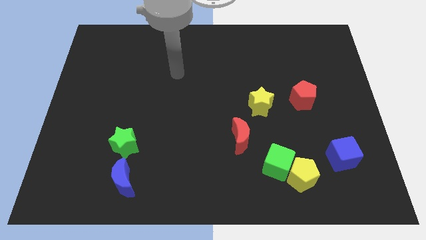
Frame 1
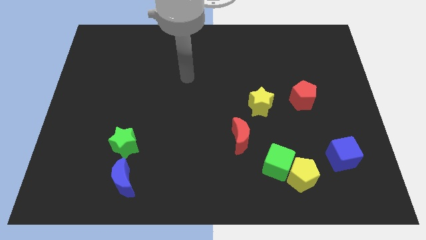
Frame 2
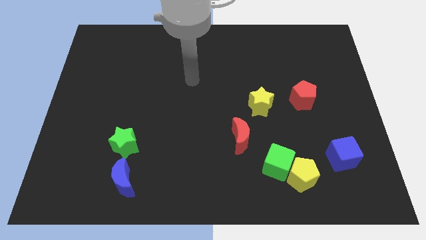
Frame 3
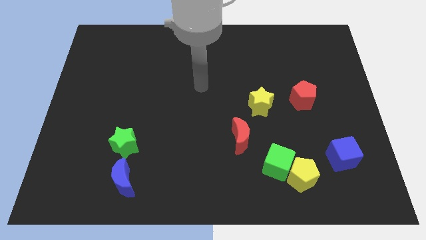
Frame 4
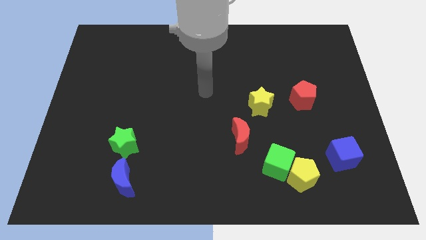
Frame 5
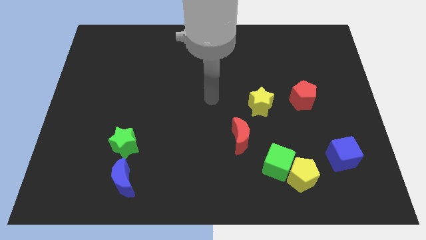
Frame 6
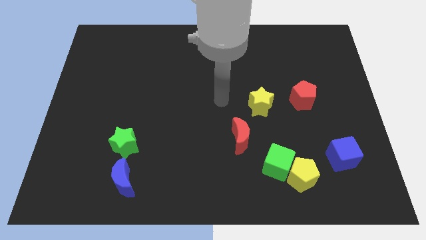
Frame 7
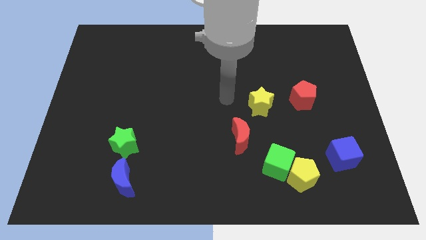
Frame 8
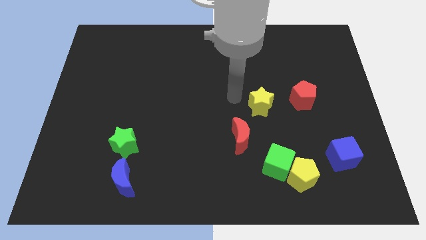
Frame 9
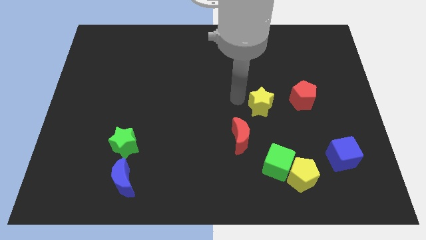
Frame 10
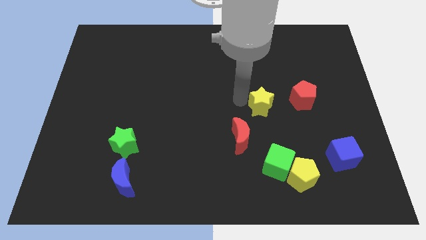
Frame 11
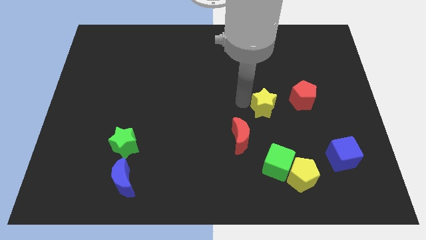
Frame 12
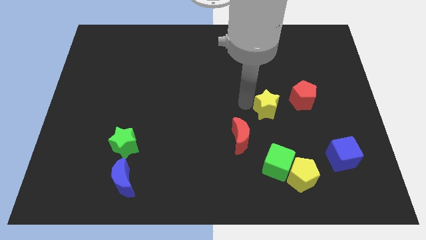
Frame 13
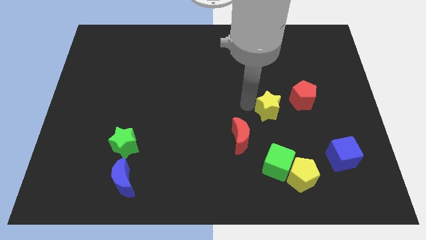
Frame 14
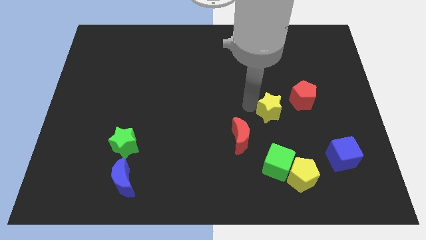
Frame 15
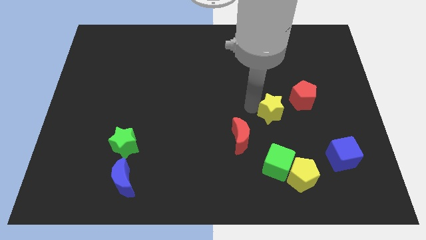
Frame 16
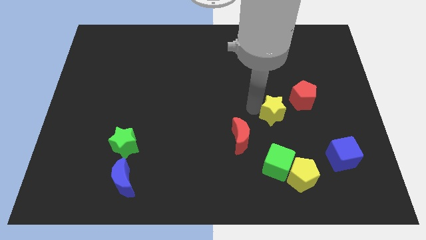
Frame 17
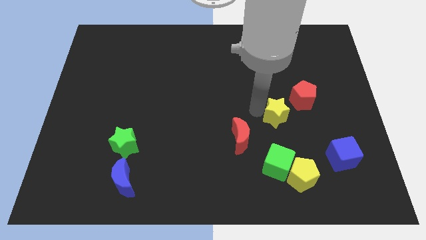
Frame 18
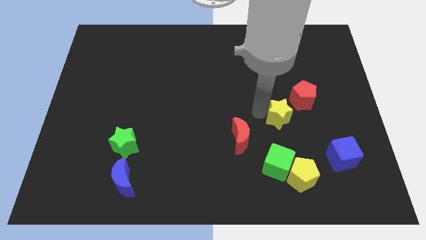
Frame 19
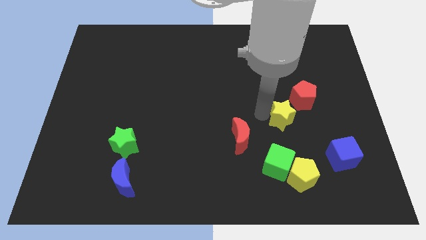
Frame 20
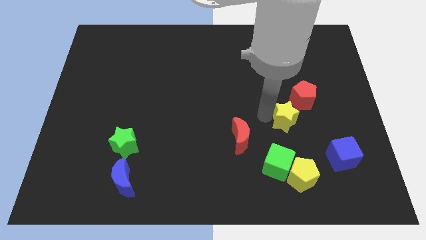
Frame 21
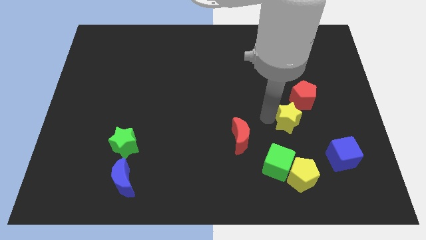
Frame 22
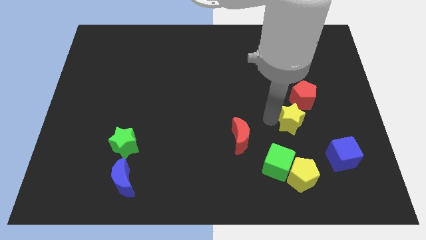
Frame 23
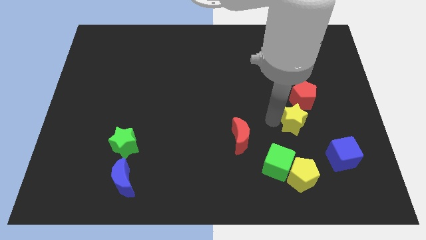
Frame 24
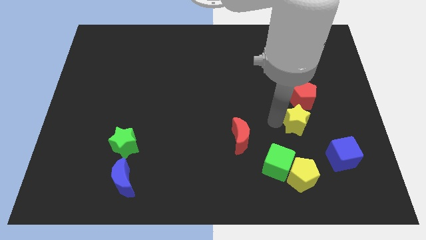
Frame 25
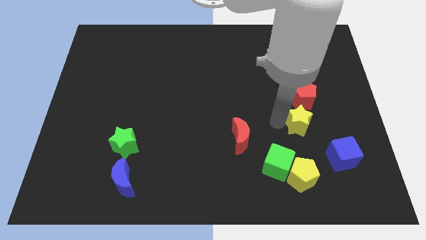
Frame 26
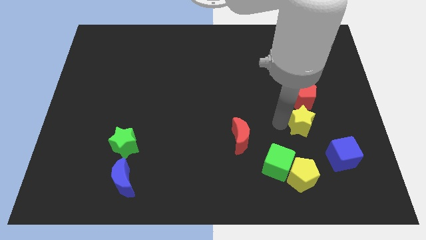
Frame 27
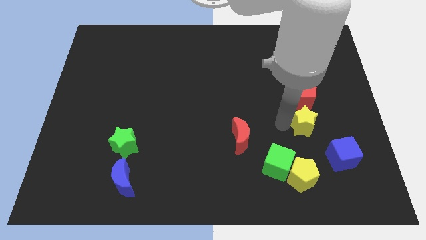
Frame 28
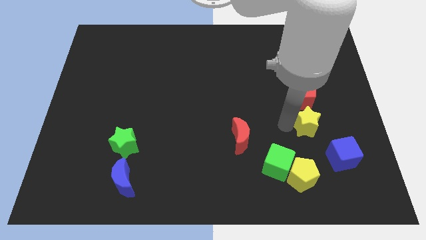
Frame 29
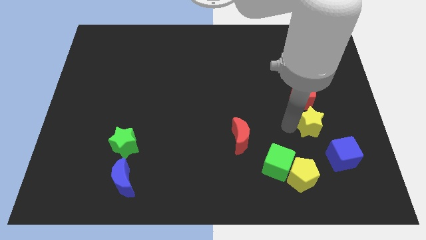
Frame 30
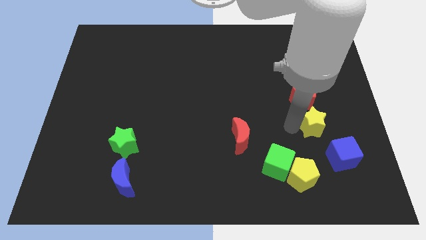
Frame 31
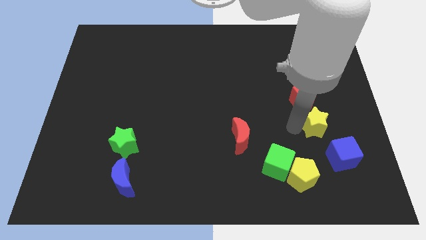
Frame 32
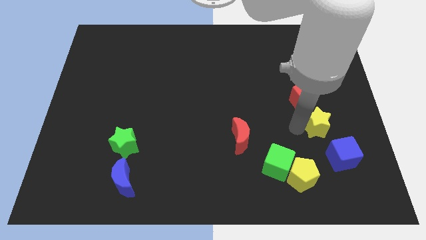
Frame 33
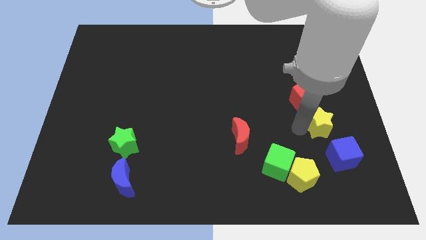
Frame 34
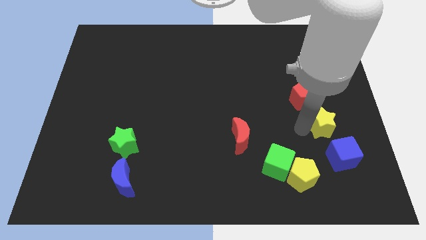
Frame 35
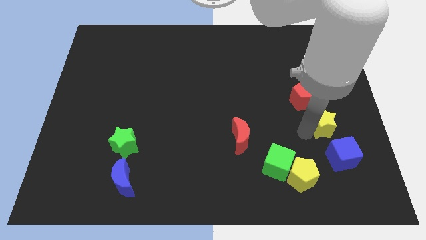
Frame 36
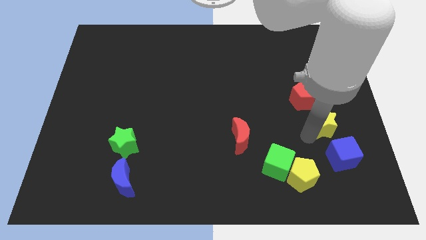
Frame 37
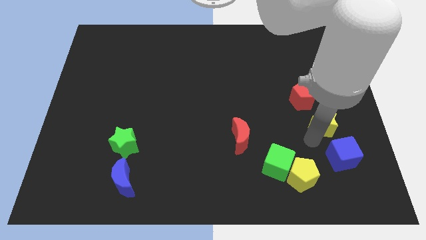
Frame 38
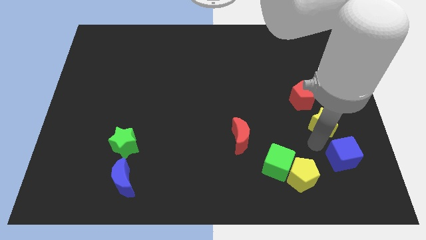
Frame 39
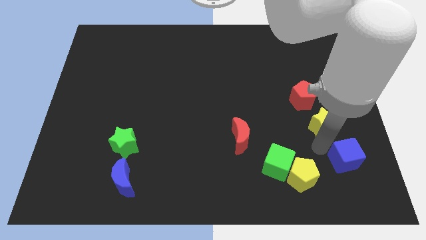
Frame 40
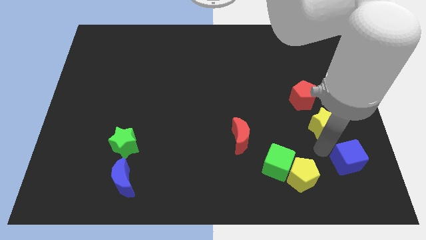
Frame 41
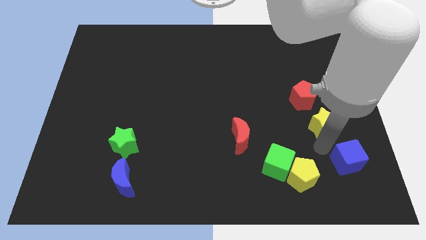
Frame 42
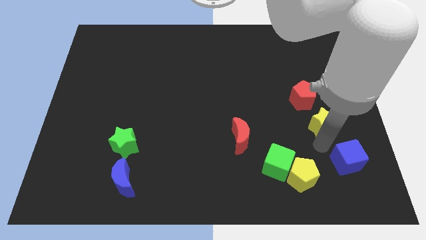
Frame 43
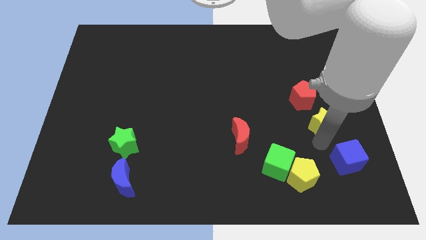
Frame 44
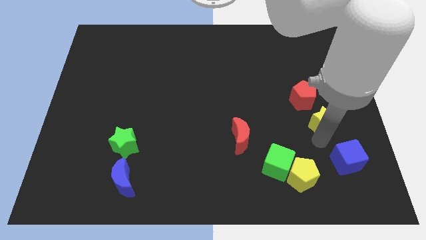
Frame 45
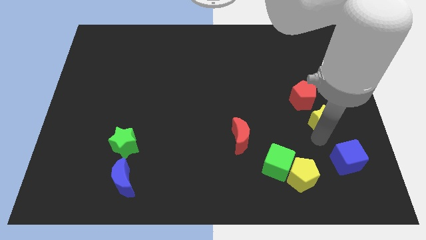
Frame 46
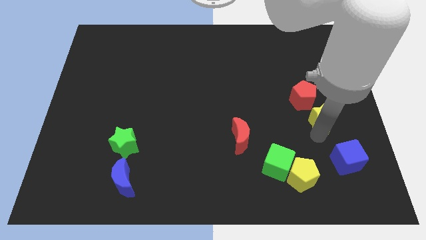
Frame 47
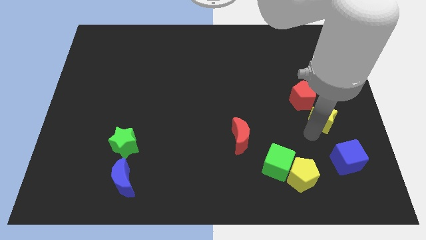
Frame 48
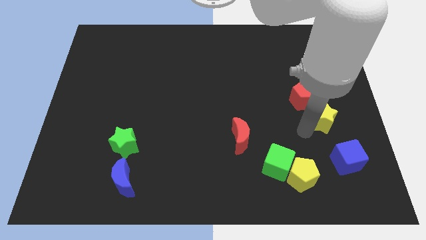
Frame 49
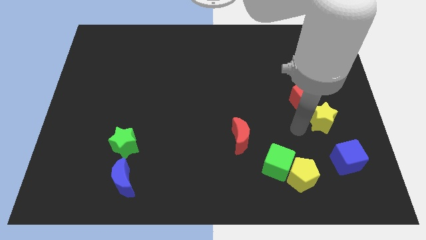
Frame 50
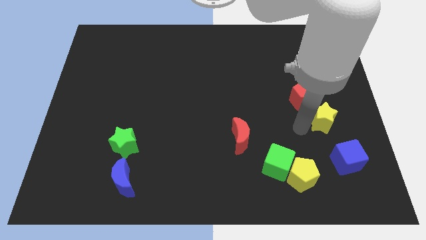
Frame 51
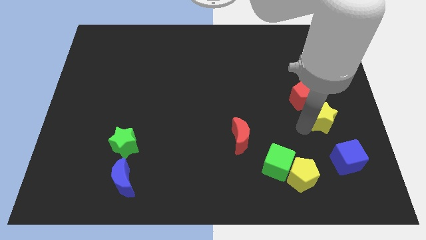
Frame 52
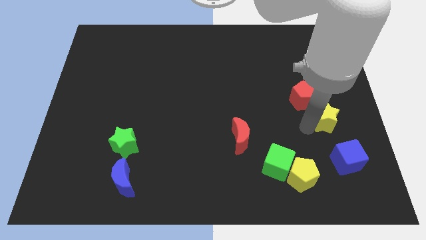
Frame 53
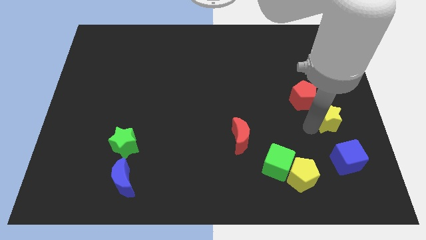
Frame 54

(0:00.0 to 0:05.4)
put the yellow star to the right side of the board

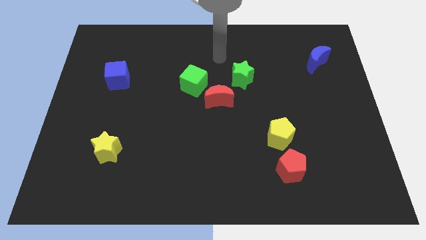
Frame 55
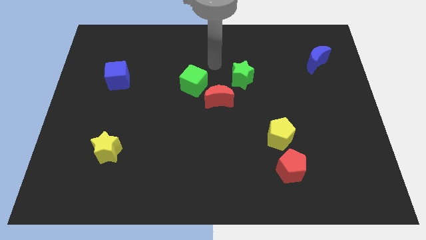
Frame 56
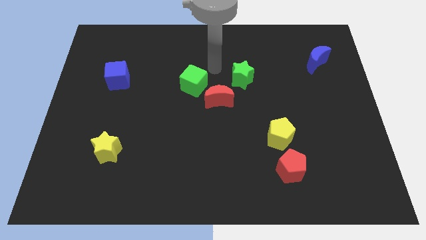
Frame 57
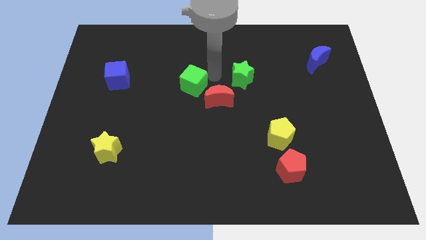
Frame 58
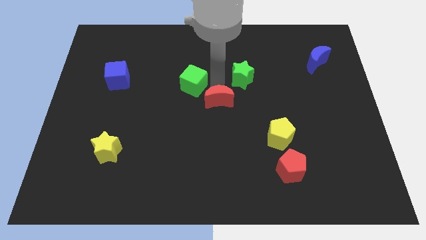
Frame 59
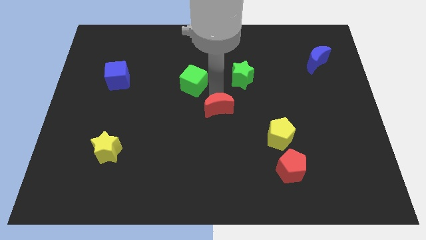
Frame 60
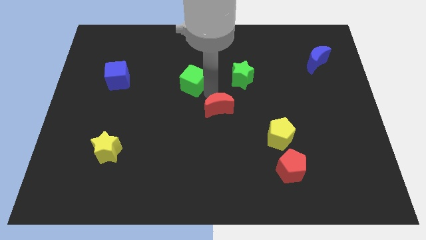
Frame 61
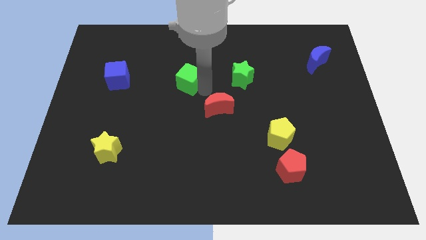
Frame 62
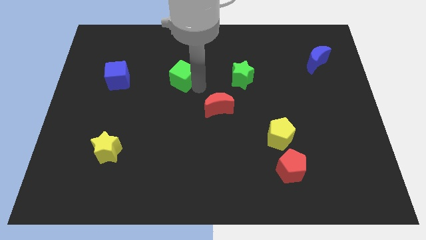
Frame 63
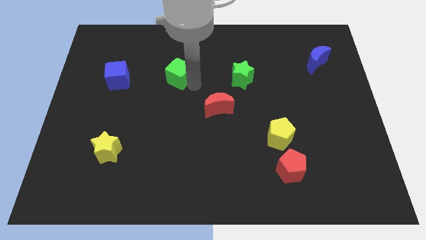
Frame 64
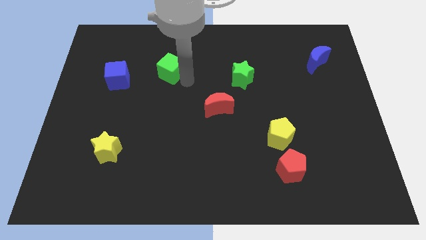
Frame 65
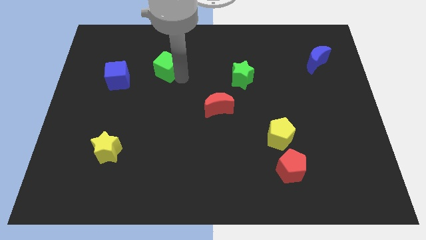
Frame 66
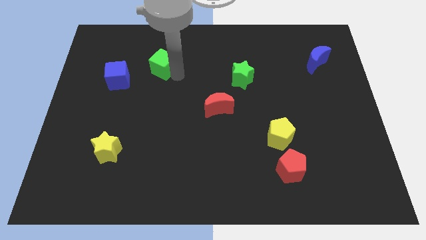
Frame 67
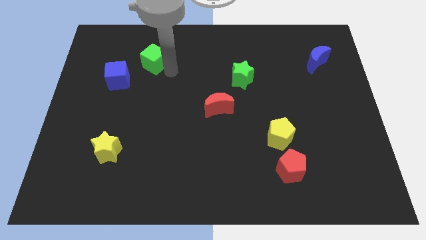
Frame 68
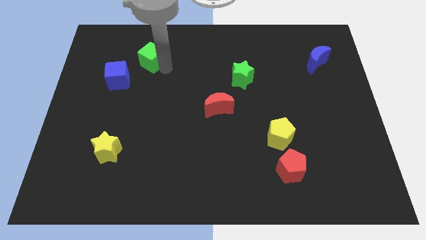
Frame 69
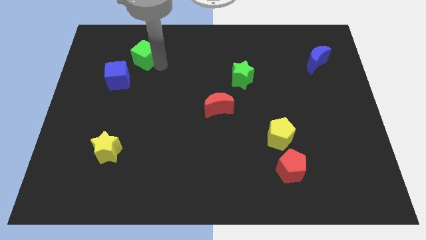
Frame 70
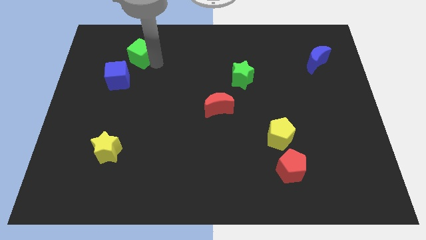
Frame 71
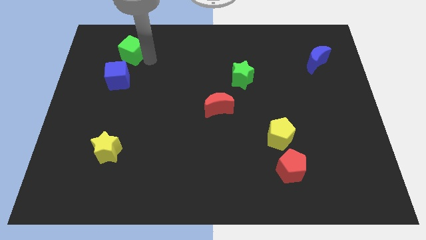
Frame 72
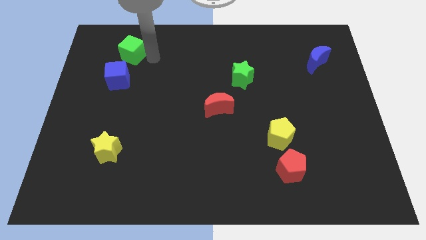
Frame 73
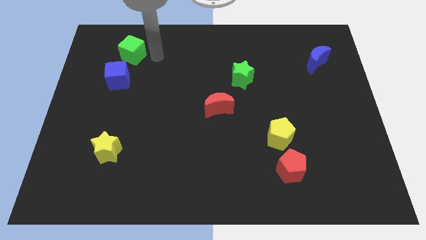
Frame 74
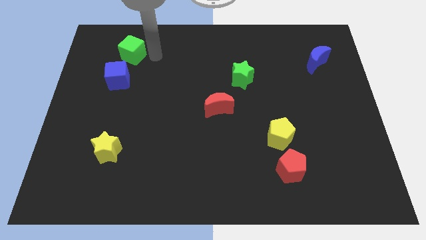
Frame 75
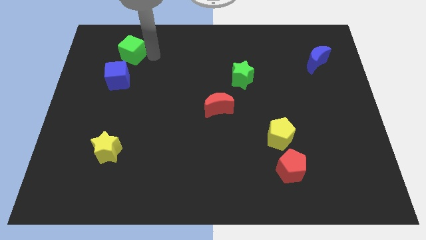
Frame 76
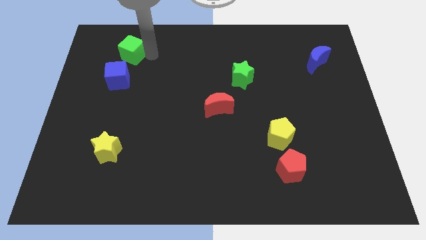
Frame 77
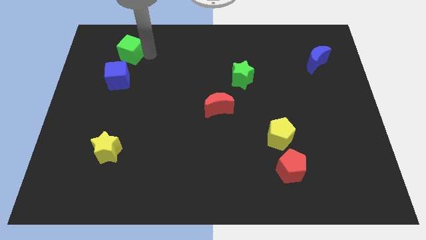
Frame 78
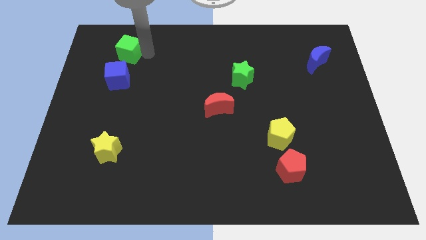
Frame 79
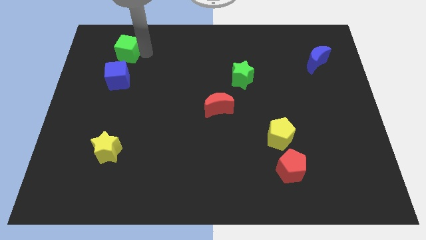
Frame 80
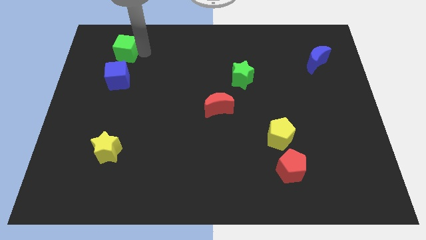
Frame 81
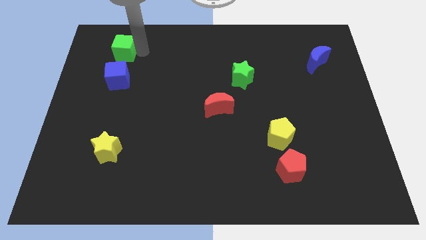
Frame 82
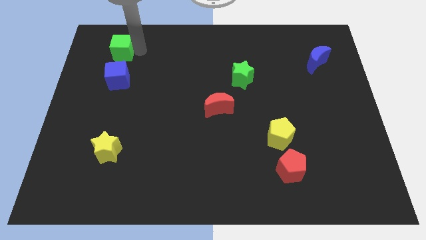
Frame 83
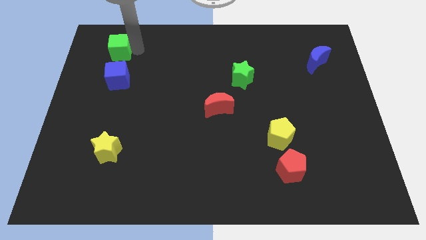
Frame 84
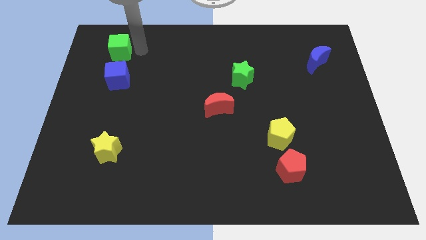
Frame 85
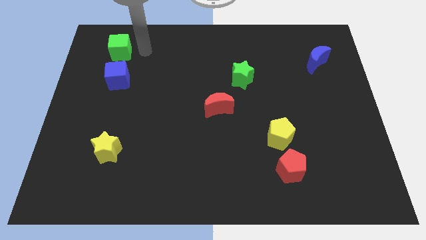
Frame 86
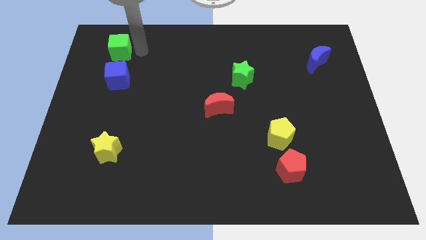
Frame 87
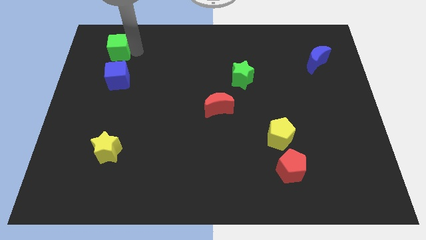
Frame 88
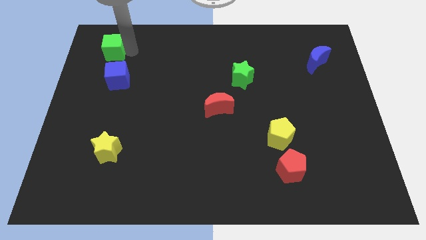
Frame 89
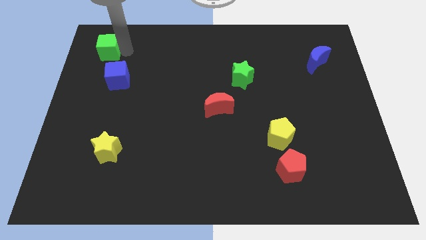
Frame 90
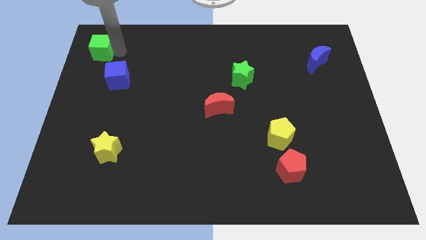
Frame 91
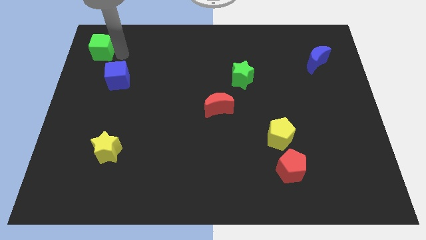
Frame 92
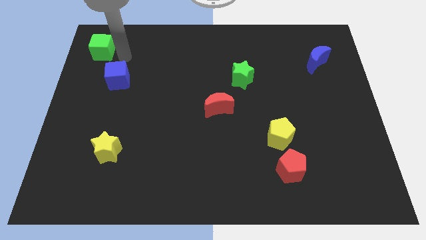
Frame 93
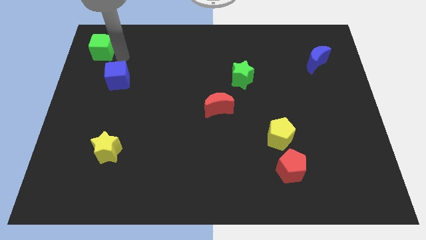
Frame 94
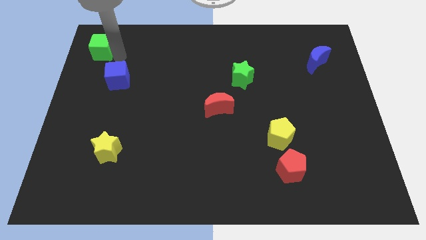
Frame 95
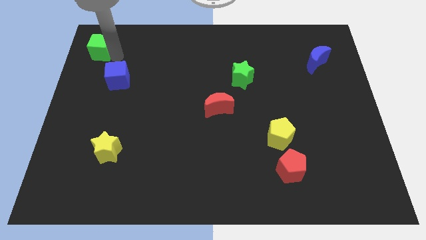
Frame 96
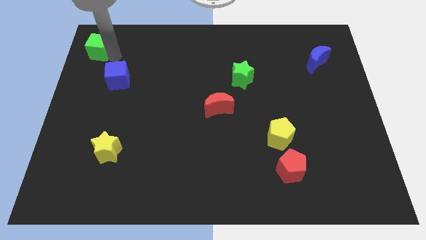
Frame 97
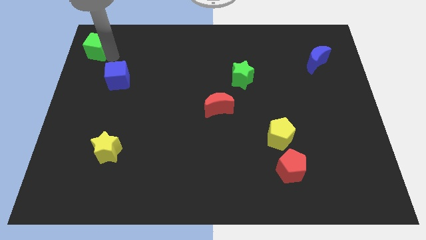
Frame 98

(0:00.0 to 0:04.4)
put the green cube to the top left corner
